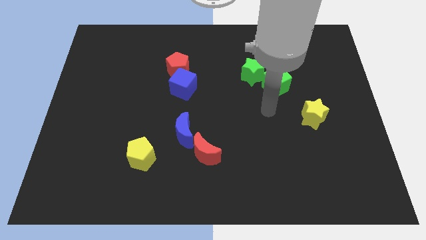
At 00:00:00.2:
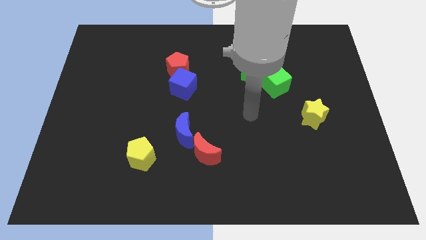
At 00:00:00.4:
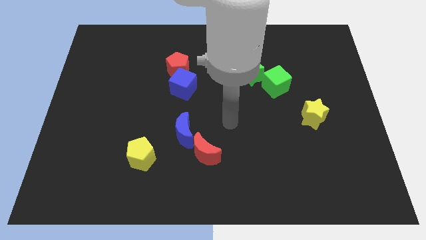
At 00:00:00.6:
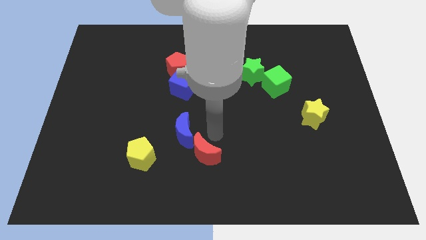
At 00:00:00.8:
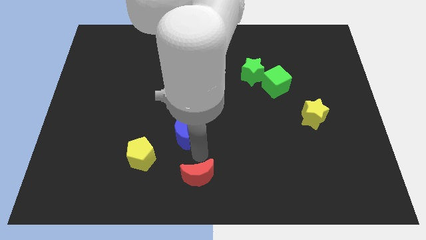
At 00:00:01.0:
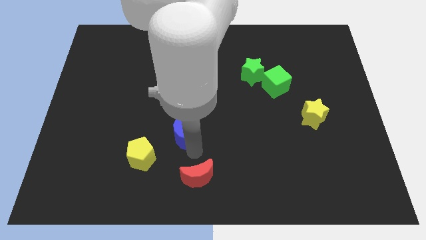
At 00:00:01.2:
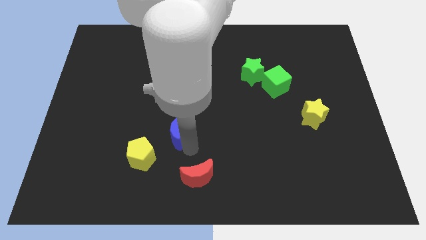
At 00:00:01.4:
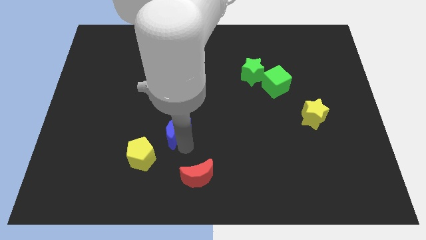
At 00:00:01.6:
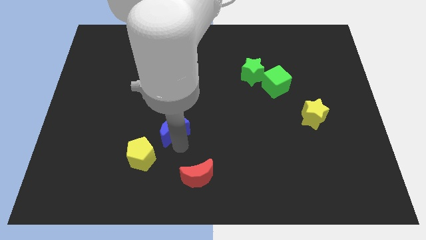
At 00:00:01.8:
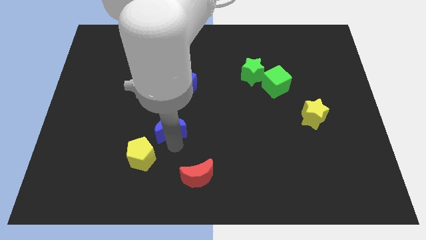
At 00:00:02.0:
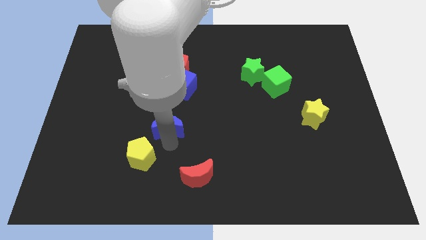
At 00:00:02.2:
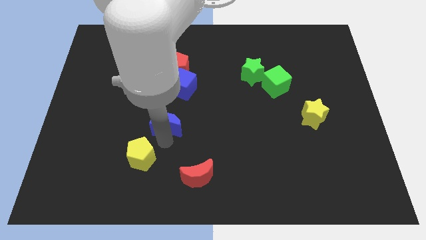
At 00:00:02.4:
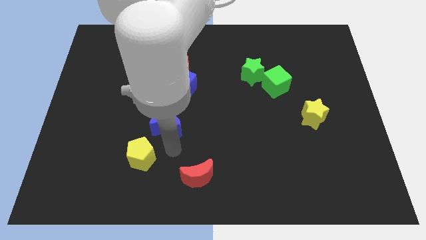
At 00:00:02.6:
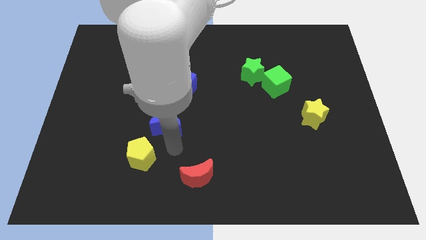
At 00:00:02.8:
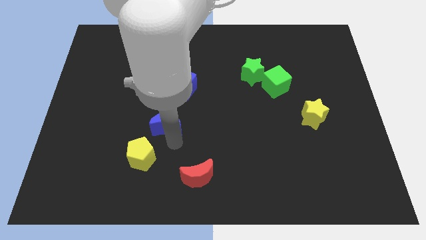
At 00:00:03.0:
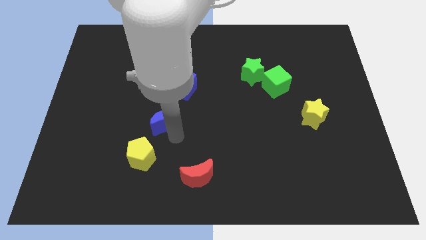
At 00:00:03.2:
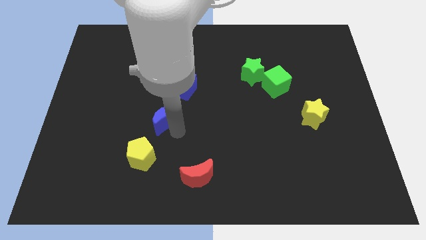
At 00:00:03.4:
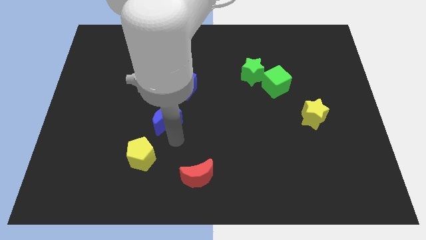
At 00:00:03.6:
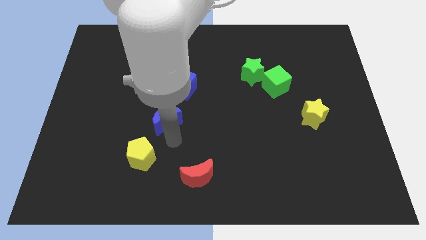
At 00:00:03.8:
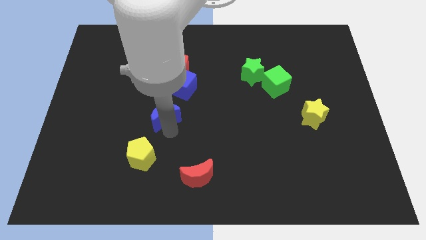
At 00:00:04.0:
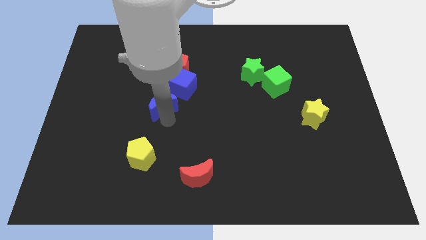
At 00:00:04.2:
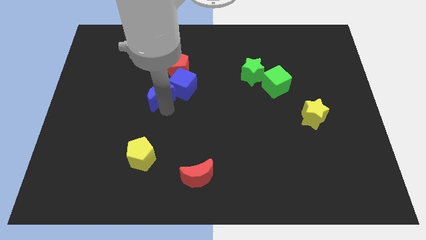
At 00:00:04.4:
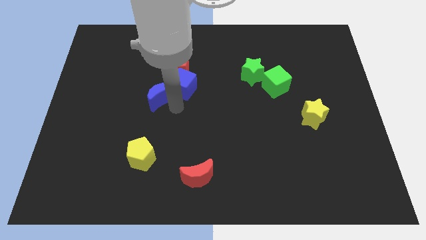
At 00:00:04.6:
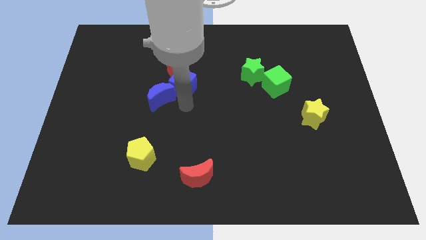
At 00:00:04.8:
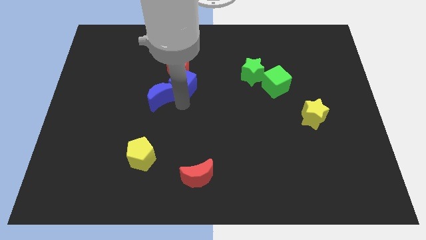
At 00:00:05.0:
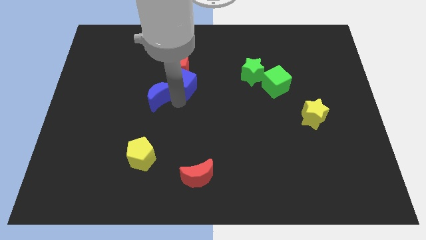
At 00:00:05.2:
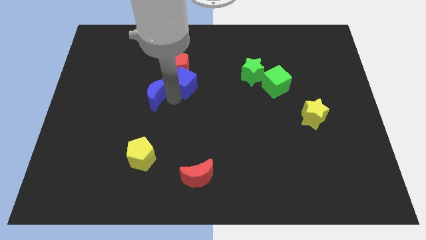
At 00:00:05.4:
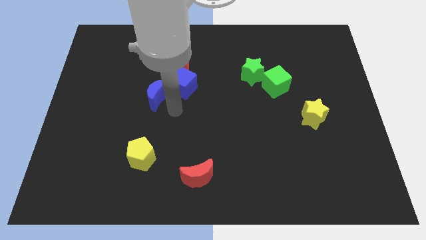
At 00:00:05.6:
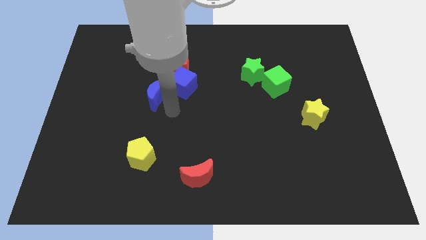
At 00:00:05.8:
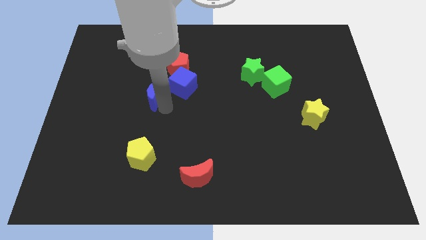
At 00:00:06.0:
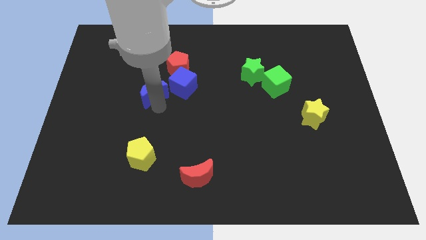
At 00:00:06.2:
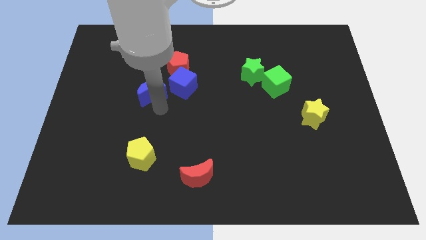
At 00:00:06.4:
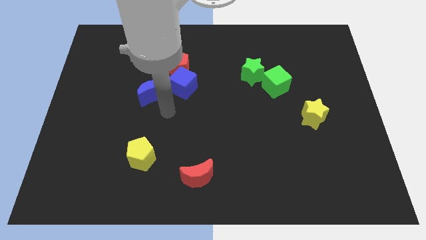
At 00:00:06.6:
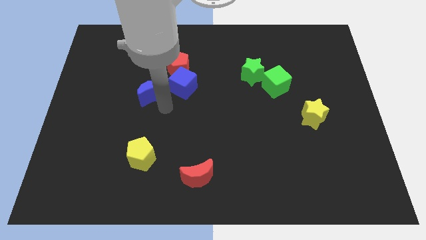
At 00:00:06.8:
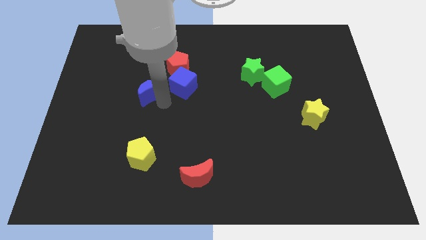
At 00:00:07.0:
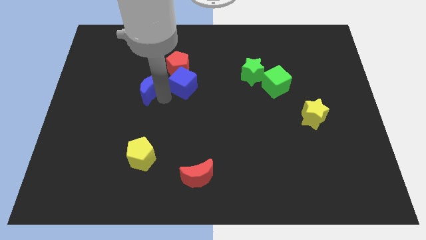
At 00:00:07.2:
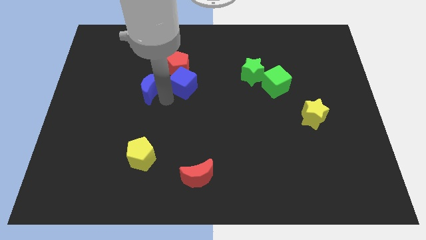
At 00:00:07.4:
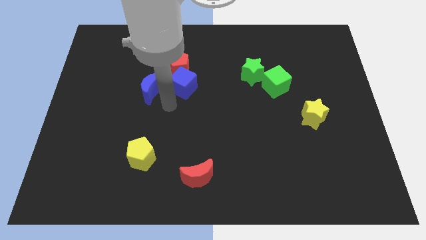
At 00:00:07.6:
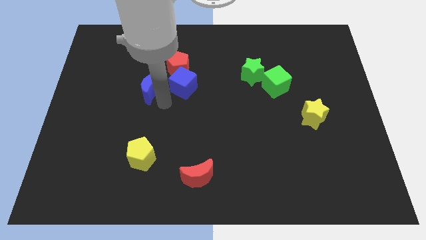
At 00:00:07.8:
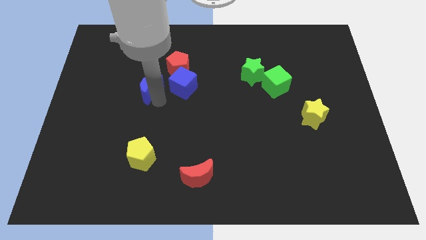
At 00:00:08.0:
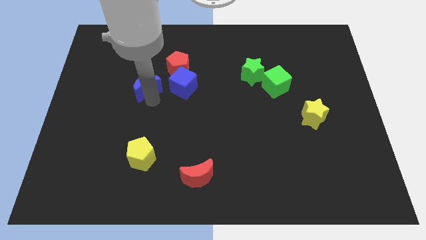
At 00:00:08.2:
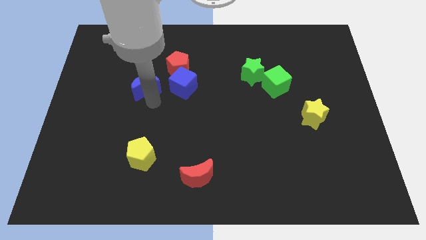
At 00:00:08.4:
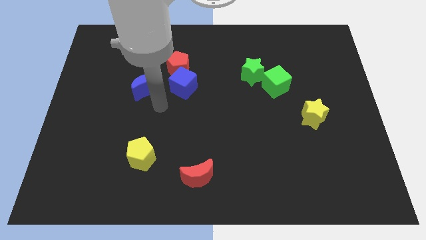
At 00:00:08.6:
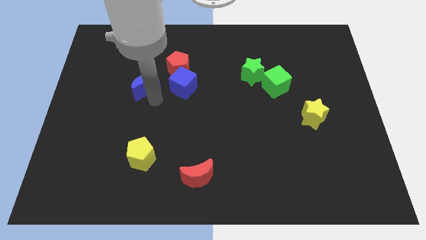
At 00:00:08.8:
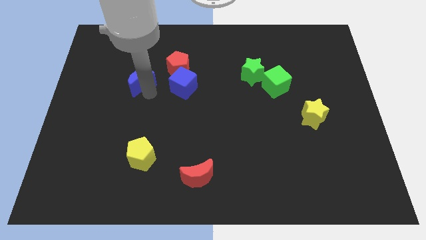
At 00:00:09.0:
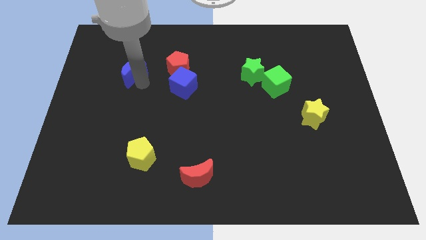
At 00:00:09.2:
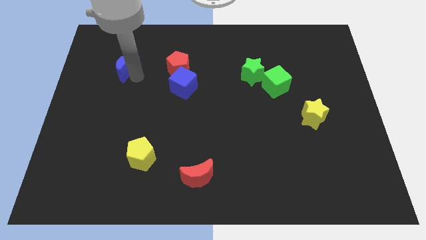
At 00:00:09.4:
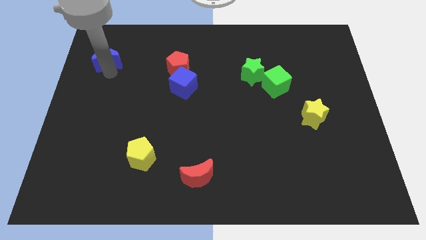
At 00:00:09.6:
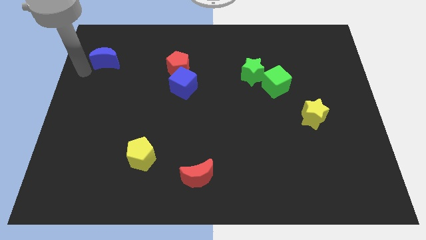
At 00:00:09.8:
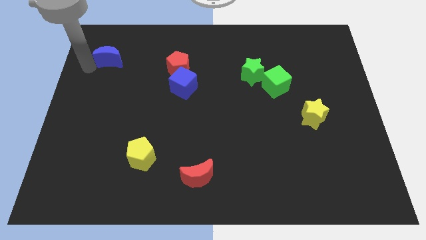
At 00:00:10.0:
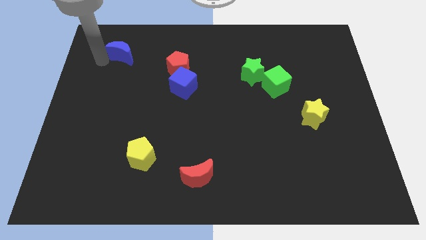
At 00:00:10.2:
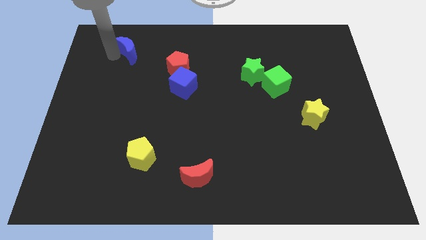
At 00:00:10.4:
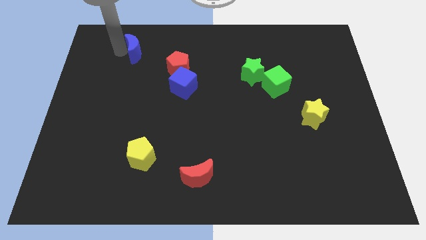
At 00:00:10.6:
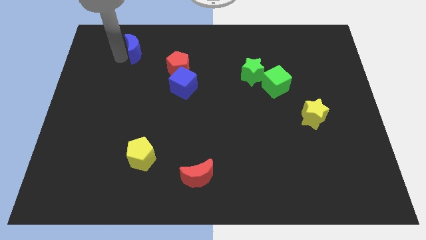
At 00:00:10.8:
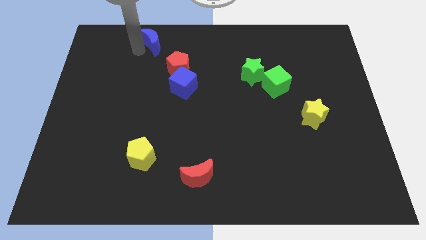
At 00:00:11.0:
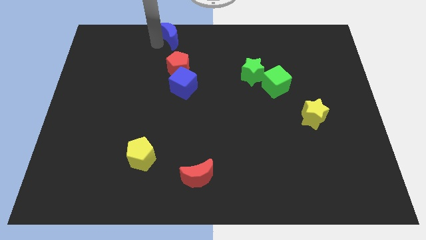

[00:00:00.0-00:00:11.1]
push the blue moon to the towards your base

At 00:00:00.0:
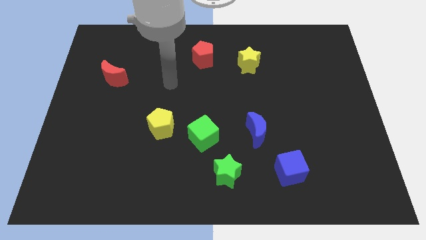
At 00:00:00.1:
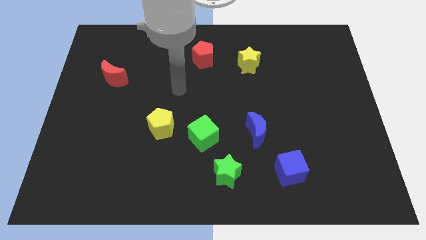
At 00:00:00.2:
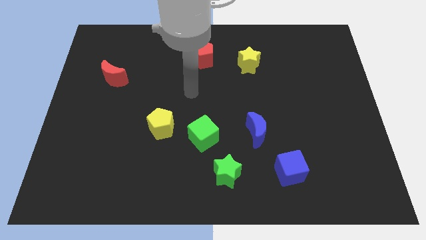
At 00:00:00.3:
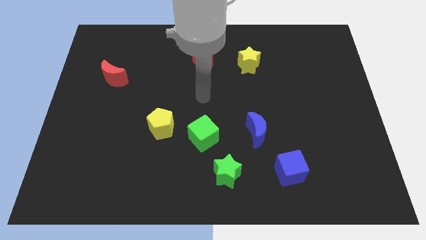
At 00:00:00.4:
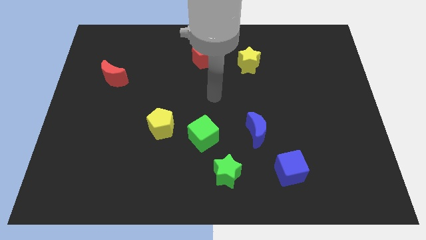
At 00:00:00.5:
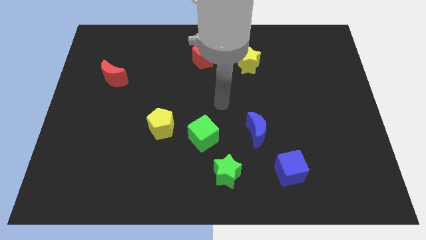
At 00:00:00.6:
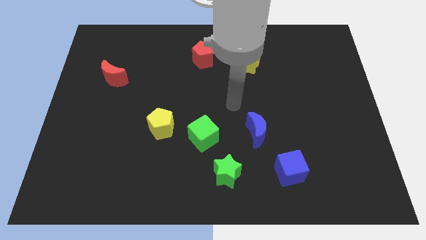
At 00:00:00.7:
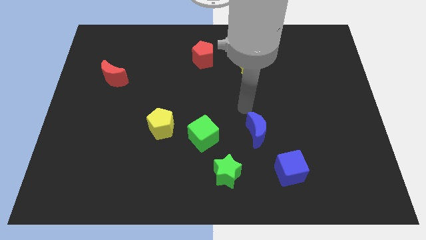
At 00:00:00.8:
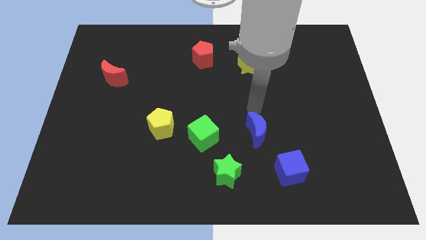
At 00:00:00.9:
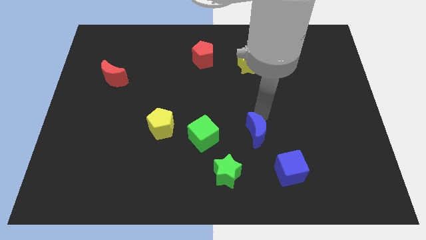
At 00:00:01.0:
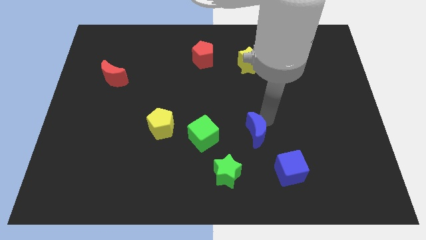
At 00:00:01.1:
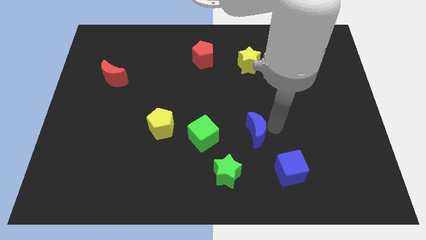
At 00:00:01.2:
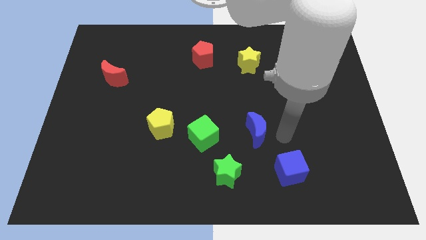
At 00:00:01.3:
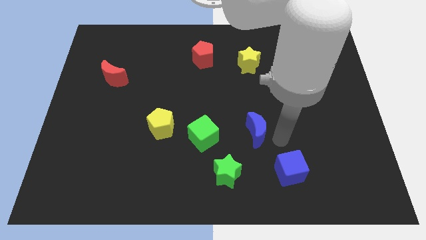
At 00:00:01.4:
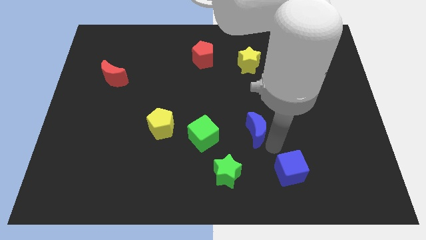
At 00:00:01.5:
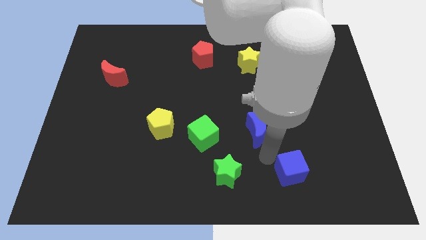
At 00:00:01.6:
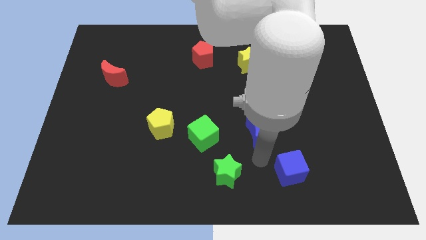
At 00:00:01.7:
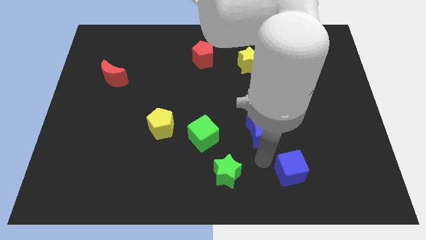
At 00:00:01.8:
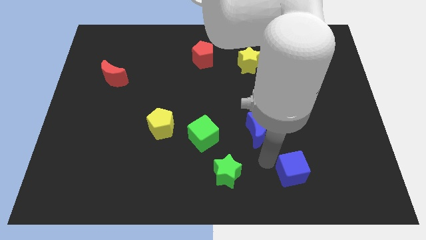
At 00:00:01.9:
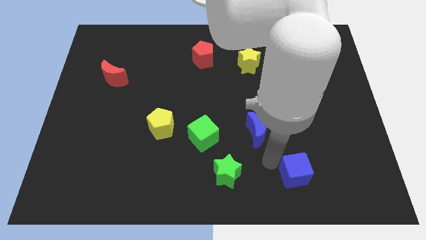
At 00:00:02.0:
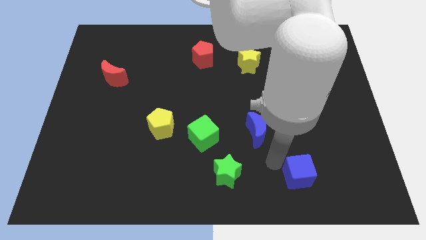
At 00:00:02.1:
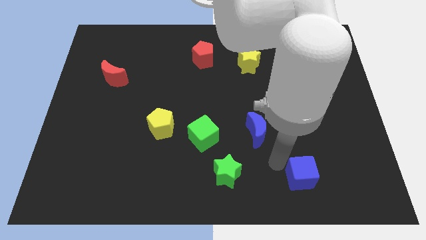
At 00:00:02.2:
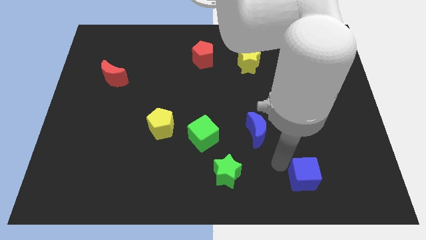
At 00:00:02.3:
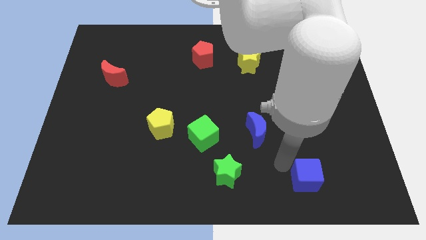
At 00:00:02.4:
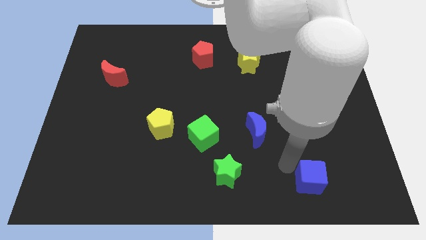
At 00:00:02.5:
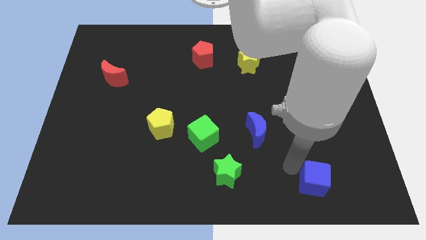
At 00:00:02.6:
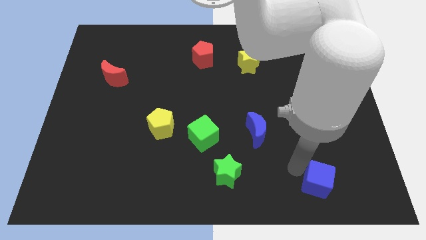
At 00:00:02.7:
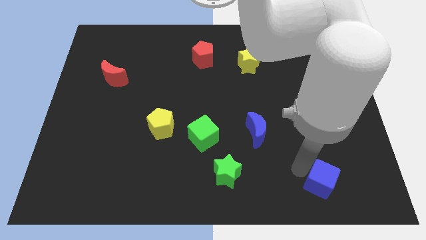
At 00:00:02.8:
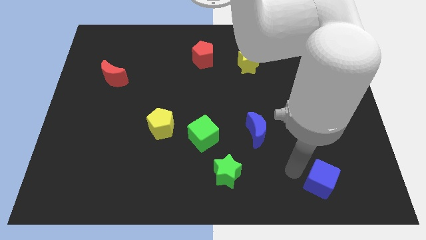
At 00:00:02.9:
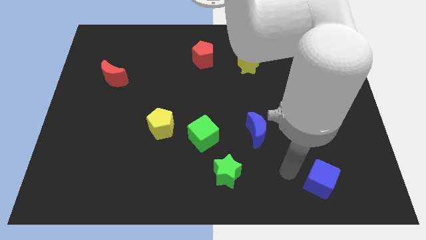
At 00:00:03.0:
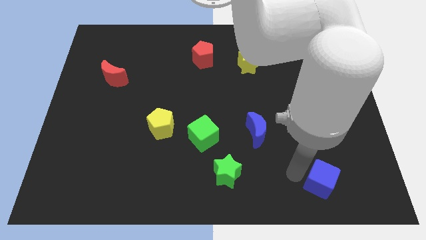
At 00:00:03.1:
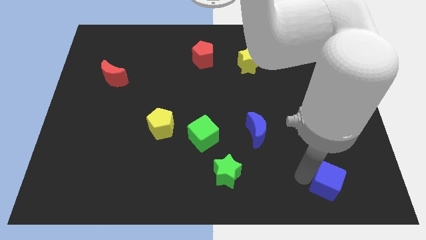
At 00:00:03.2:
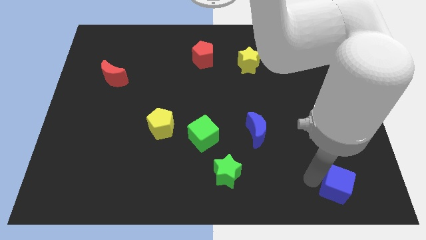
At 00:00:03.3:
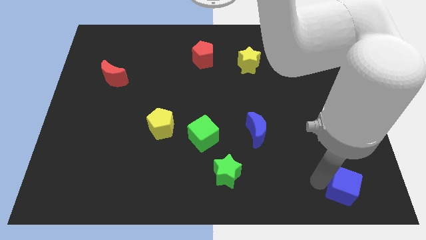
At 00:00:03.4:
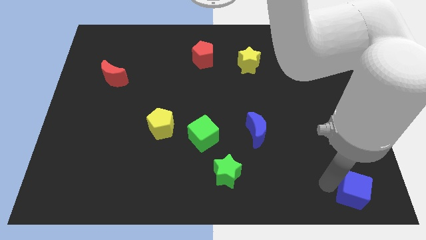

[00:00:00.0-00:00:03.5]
slide the blue cube to the bottom right corner
